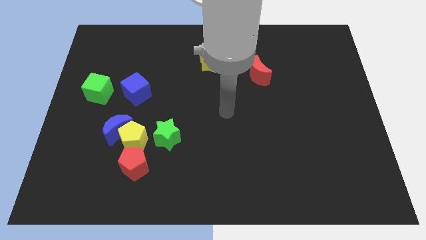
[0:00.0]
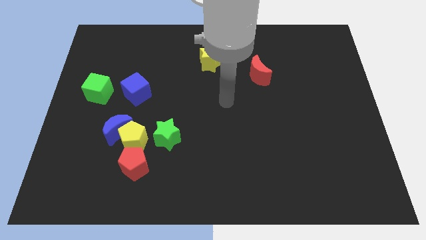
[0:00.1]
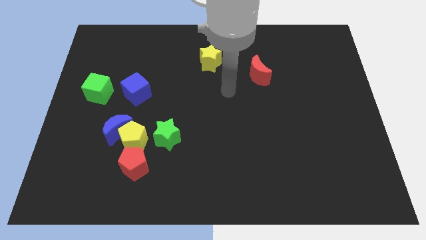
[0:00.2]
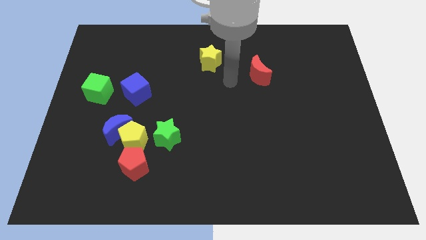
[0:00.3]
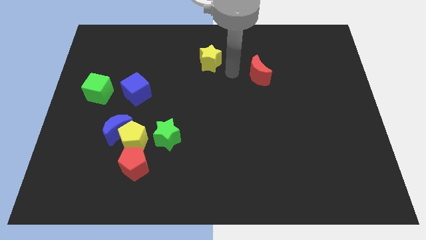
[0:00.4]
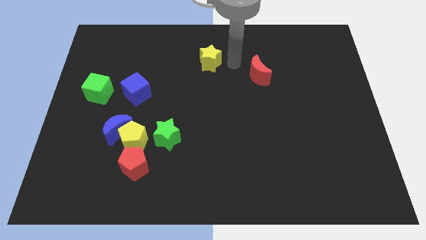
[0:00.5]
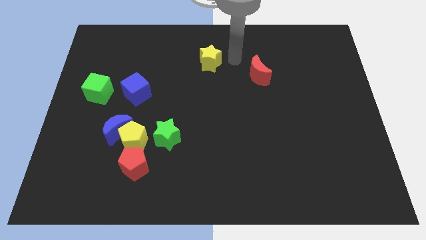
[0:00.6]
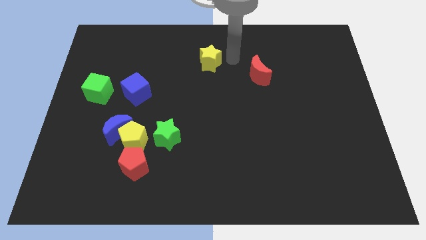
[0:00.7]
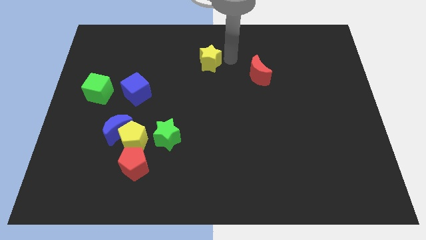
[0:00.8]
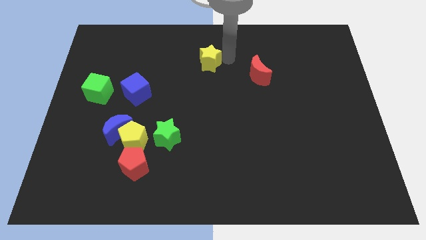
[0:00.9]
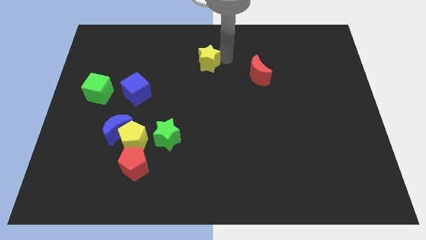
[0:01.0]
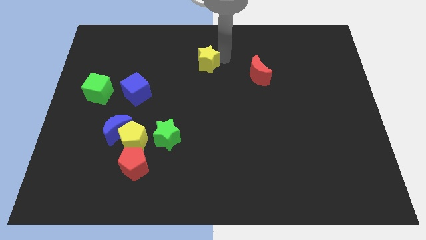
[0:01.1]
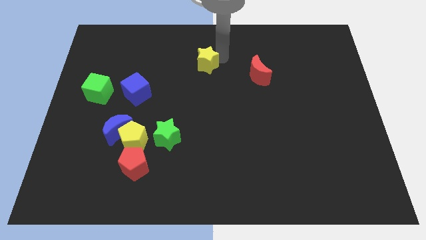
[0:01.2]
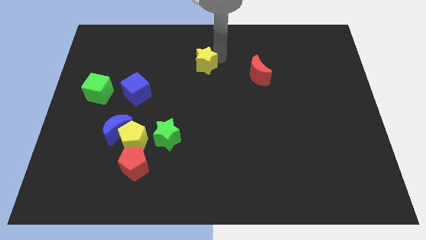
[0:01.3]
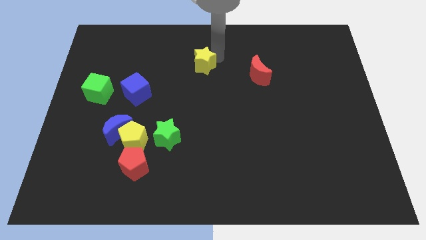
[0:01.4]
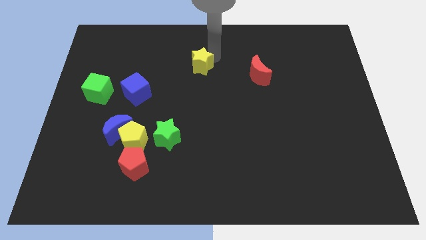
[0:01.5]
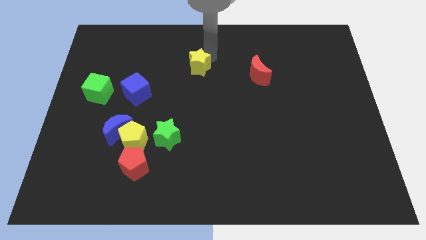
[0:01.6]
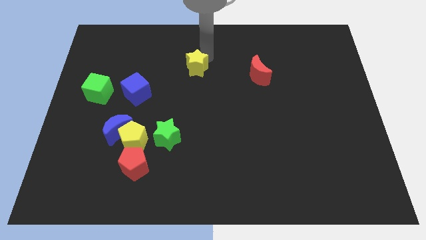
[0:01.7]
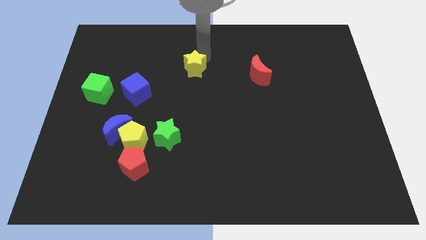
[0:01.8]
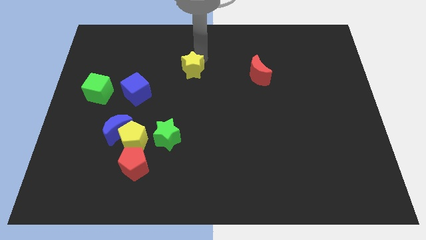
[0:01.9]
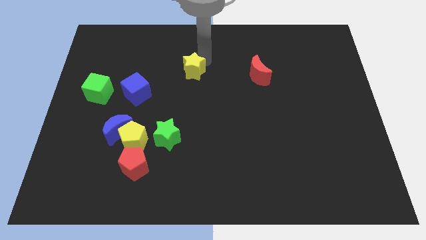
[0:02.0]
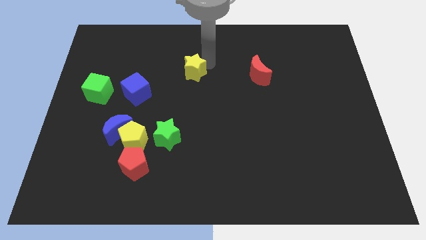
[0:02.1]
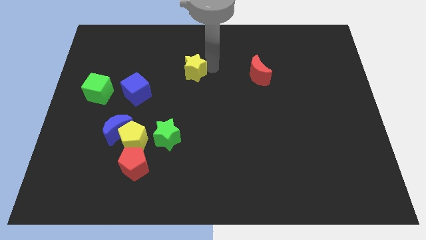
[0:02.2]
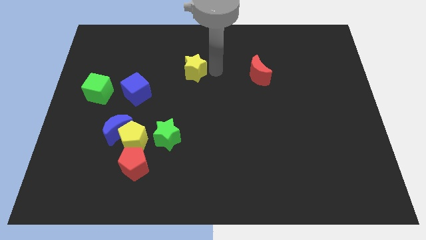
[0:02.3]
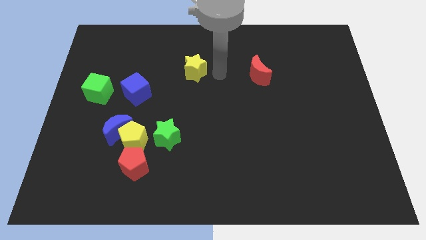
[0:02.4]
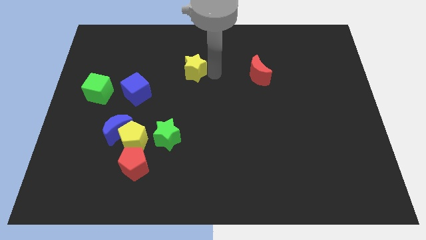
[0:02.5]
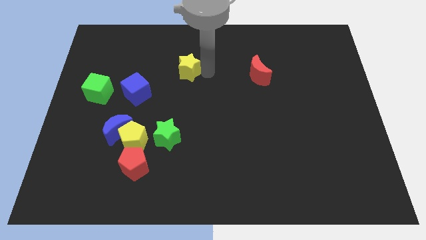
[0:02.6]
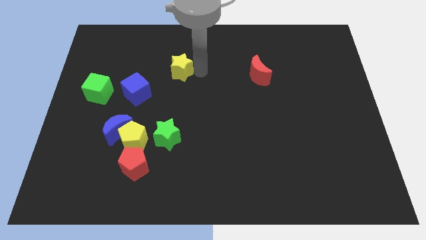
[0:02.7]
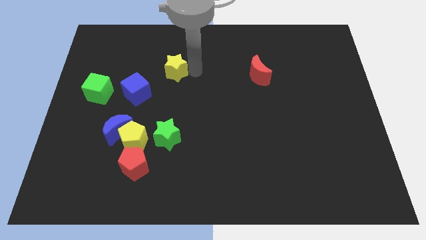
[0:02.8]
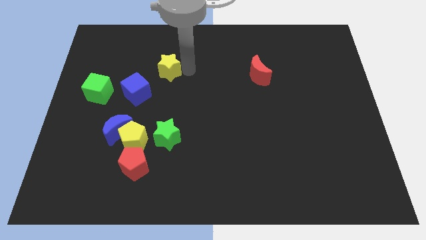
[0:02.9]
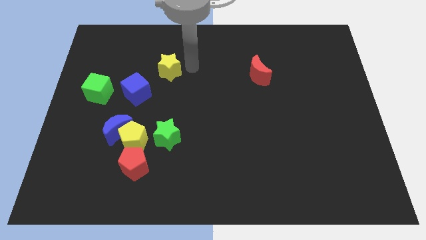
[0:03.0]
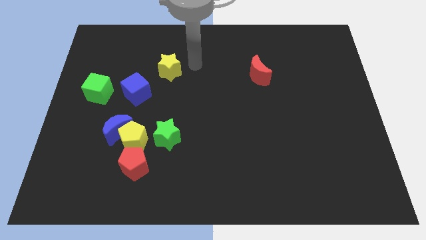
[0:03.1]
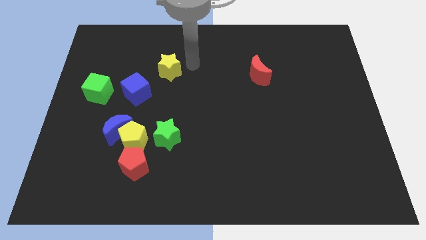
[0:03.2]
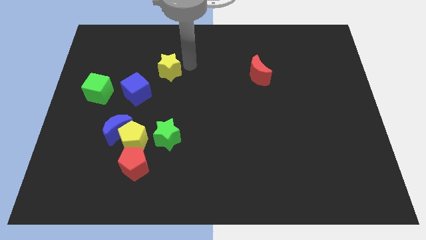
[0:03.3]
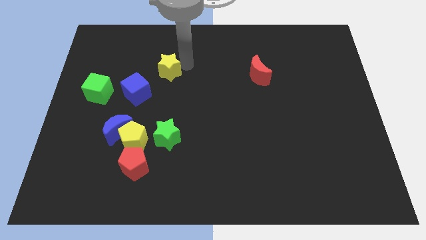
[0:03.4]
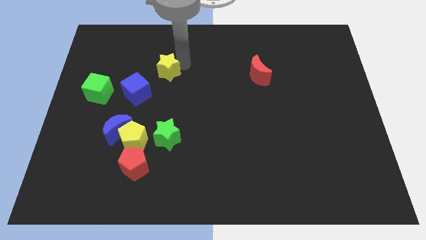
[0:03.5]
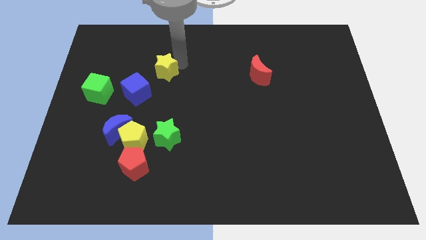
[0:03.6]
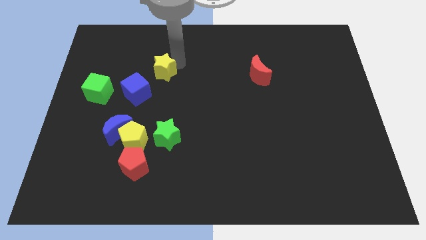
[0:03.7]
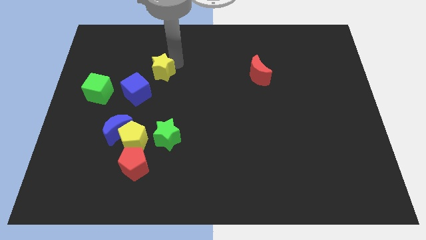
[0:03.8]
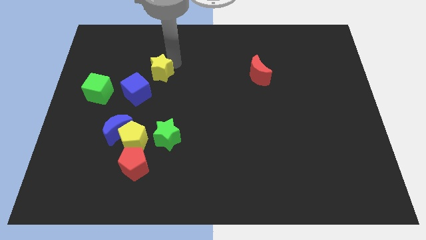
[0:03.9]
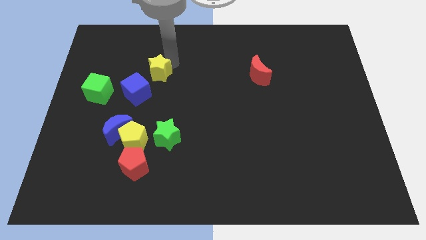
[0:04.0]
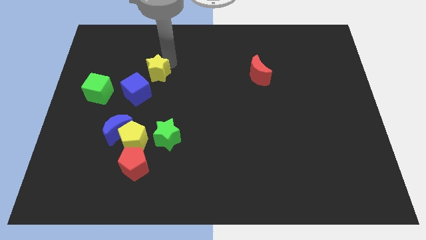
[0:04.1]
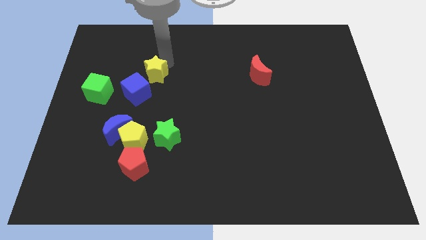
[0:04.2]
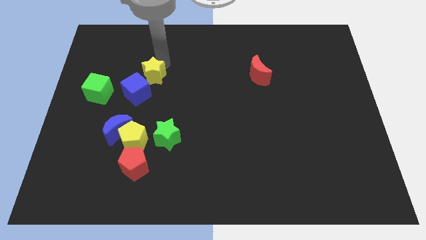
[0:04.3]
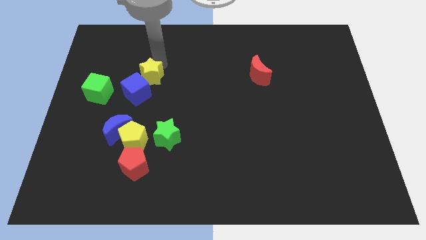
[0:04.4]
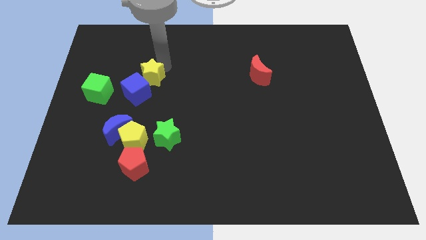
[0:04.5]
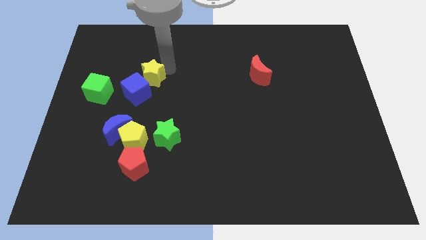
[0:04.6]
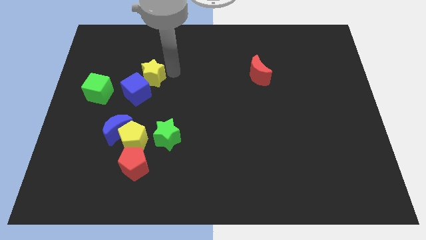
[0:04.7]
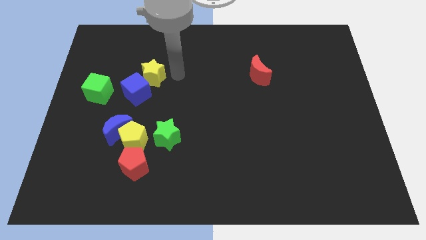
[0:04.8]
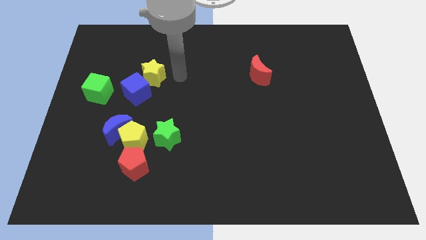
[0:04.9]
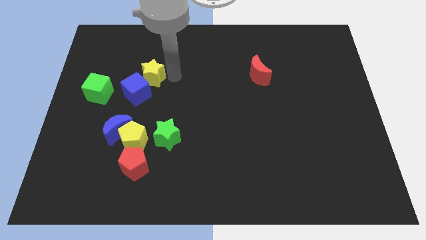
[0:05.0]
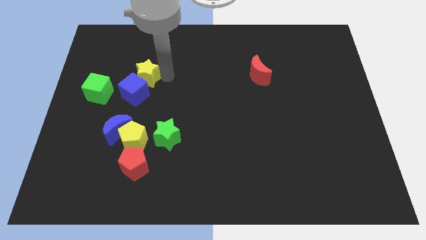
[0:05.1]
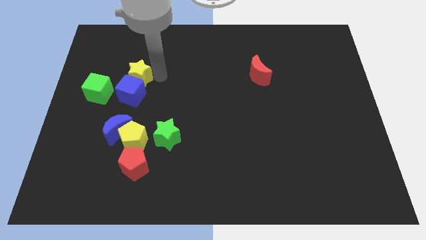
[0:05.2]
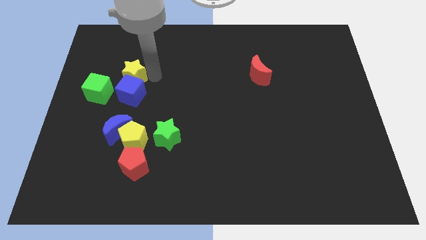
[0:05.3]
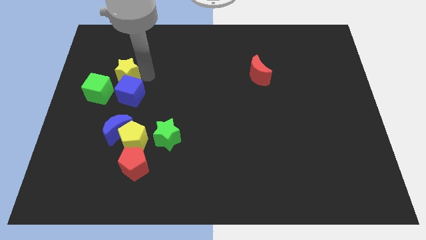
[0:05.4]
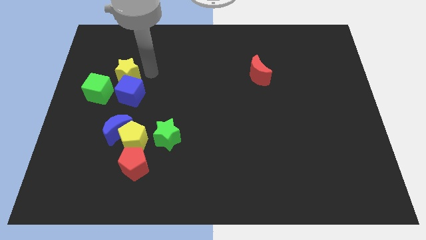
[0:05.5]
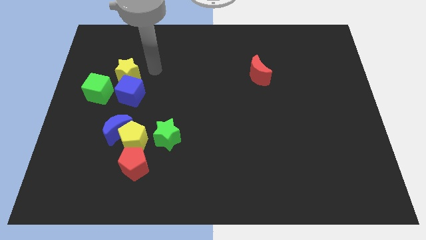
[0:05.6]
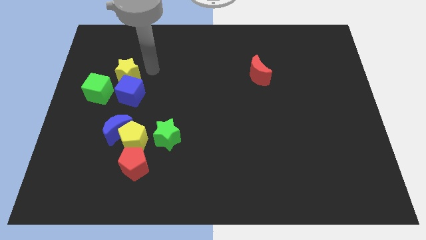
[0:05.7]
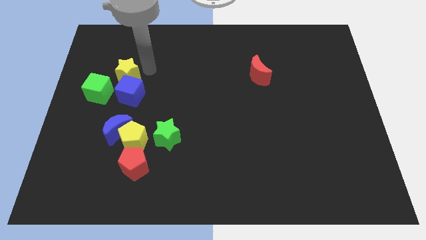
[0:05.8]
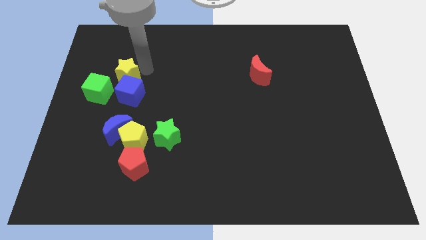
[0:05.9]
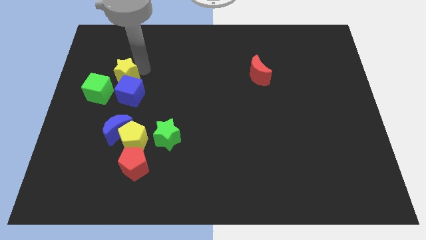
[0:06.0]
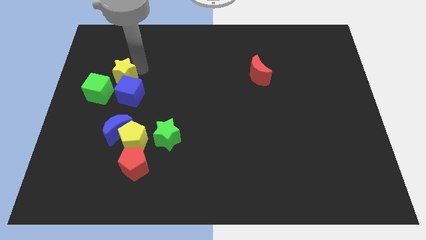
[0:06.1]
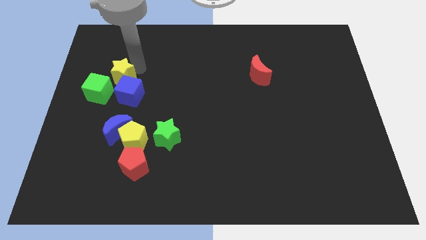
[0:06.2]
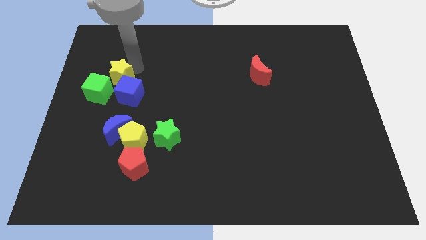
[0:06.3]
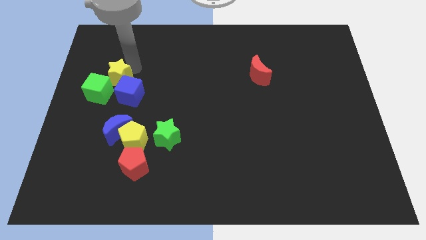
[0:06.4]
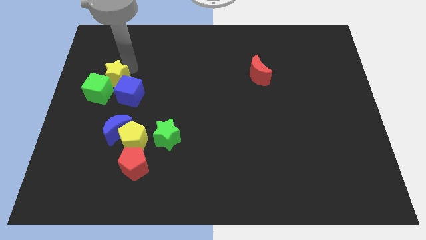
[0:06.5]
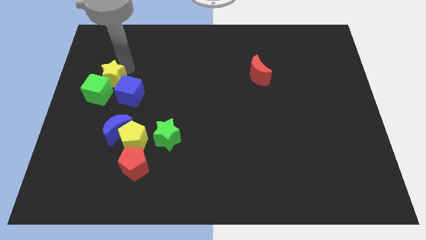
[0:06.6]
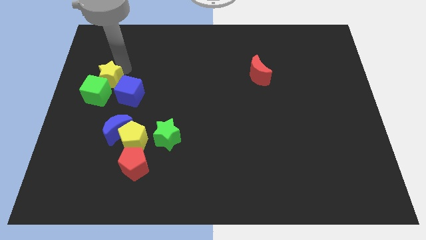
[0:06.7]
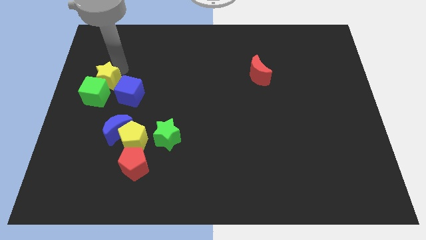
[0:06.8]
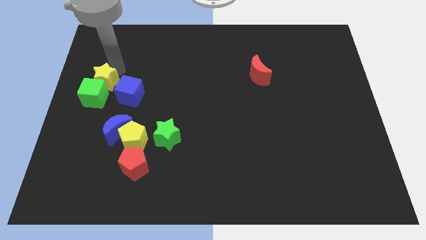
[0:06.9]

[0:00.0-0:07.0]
put the yellow star to the left side of the board
